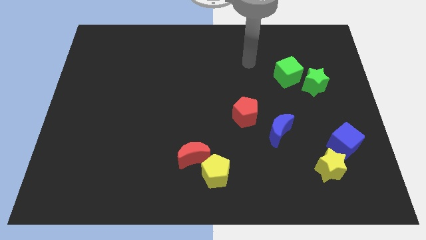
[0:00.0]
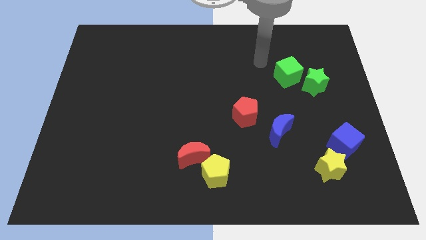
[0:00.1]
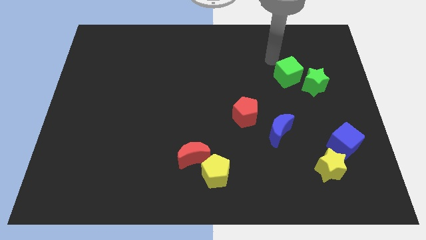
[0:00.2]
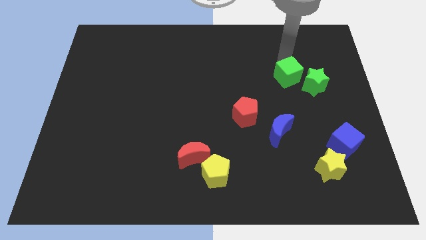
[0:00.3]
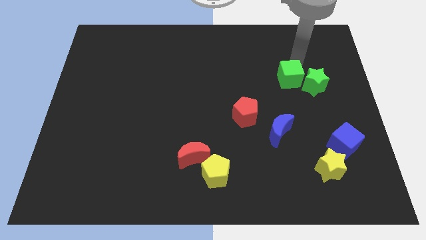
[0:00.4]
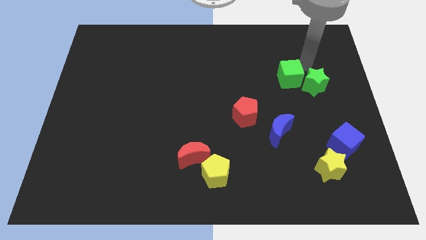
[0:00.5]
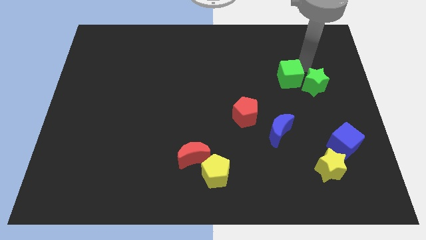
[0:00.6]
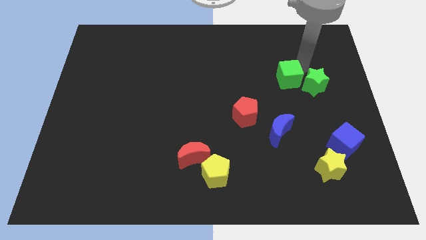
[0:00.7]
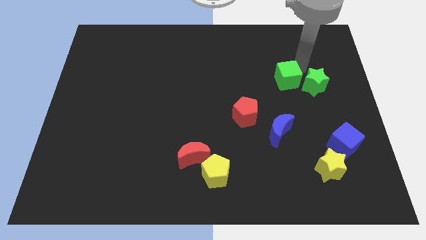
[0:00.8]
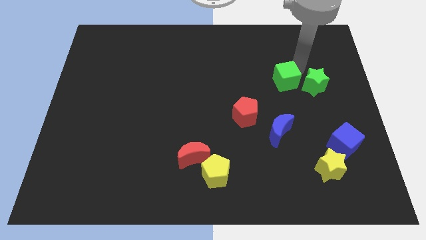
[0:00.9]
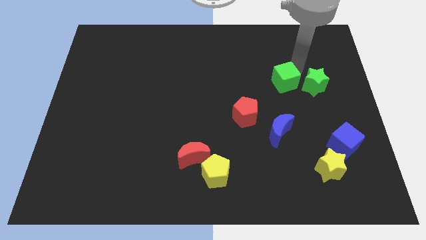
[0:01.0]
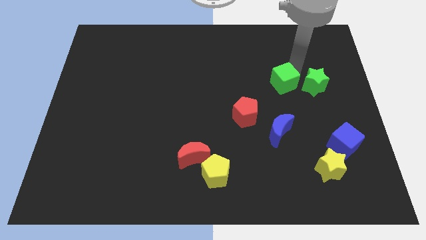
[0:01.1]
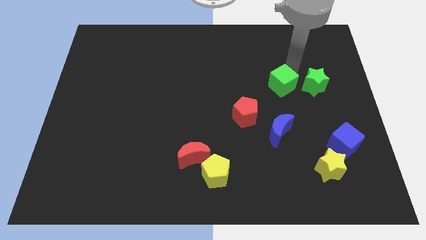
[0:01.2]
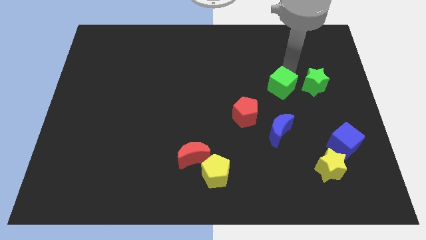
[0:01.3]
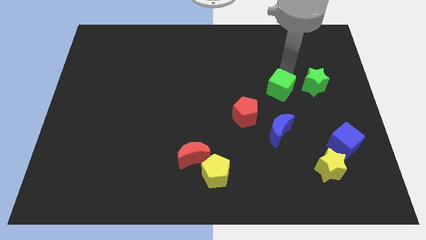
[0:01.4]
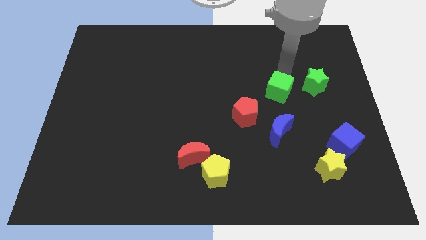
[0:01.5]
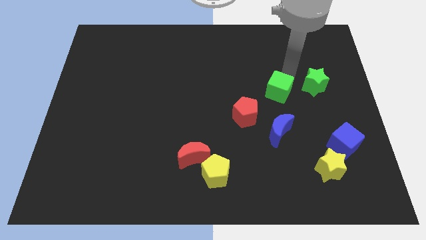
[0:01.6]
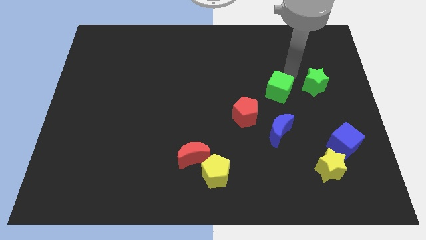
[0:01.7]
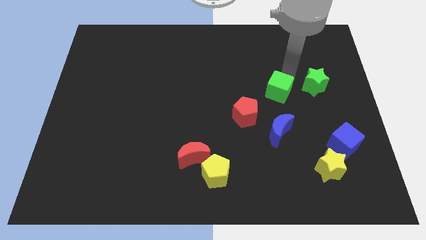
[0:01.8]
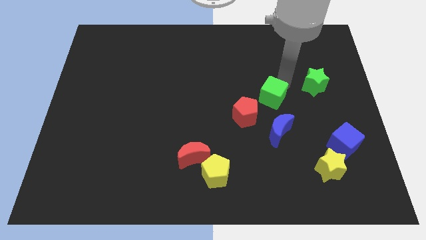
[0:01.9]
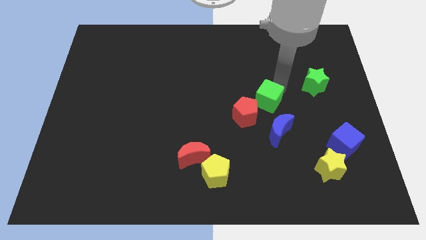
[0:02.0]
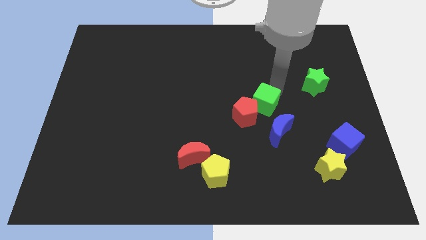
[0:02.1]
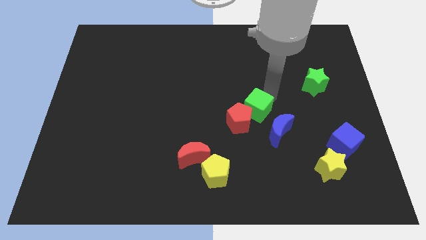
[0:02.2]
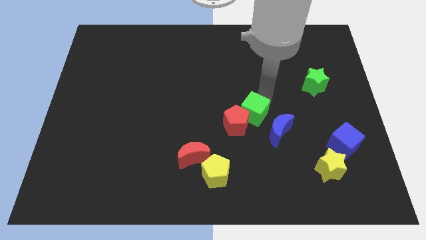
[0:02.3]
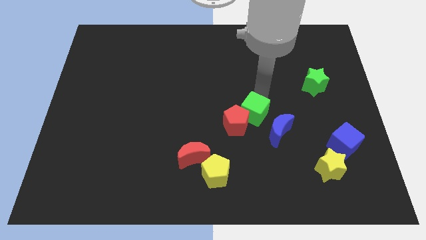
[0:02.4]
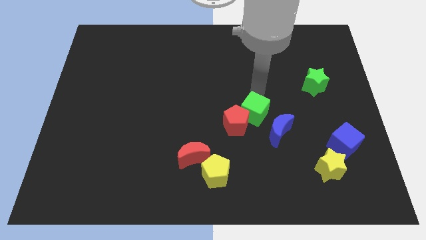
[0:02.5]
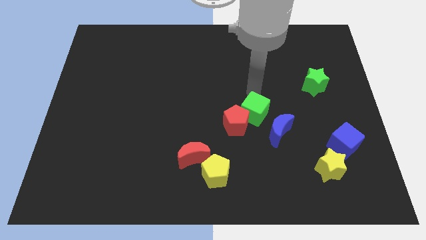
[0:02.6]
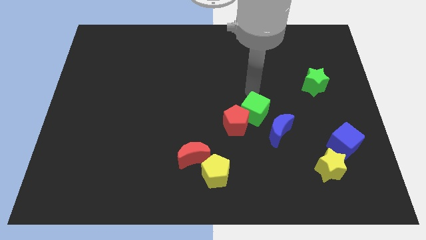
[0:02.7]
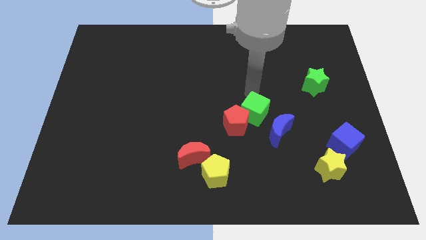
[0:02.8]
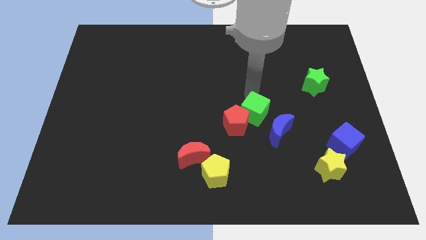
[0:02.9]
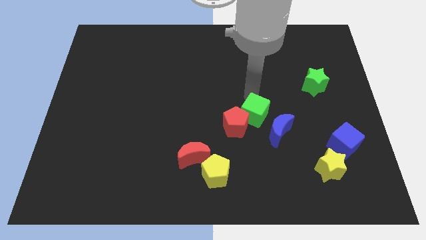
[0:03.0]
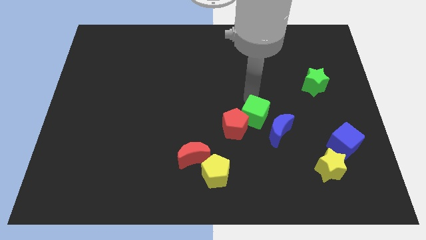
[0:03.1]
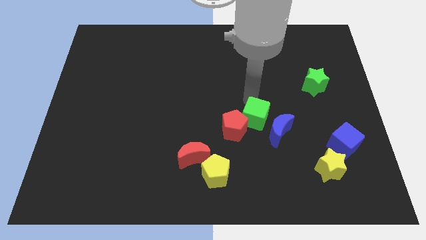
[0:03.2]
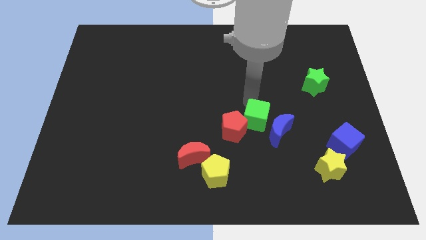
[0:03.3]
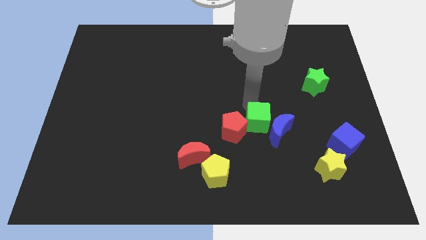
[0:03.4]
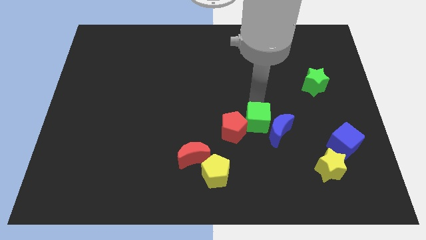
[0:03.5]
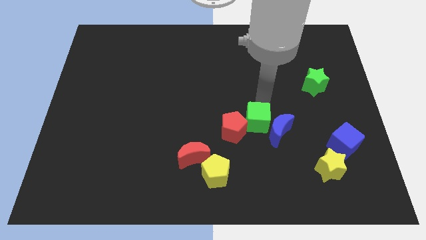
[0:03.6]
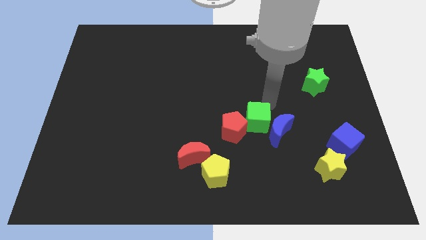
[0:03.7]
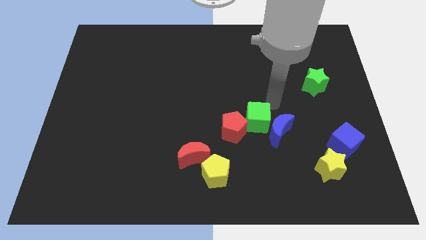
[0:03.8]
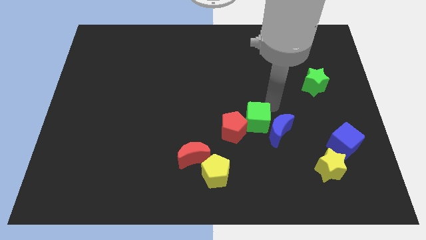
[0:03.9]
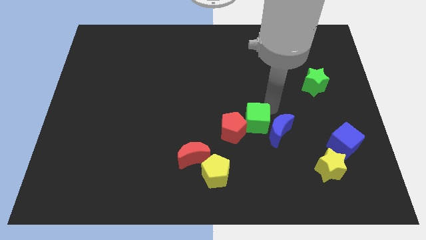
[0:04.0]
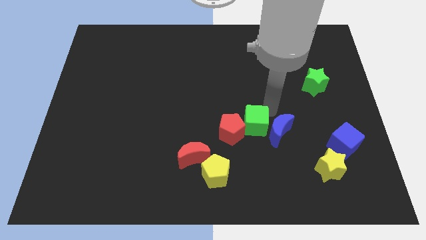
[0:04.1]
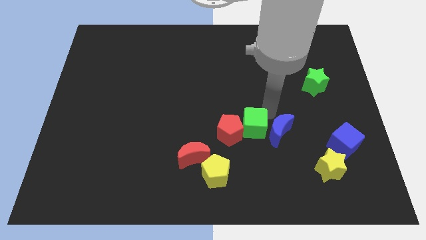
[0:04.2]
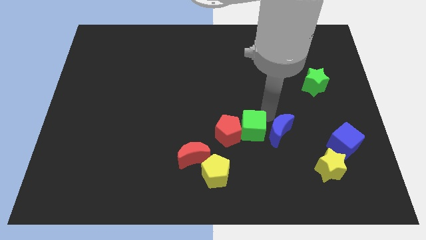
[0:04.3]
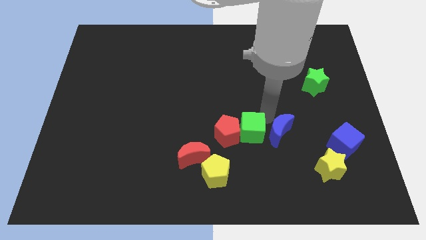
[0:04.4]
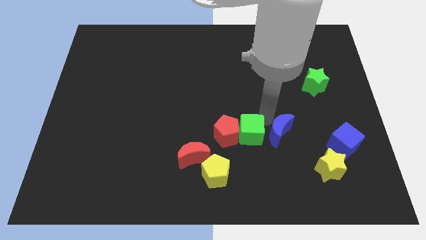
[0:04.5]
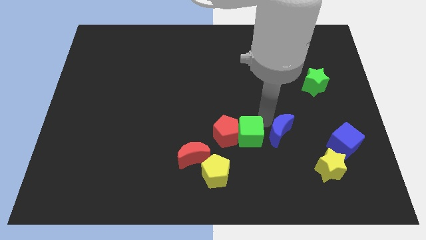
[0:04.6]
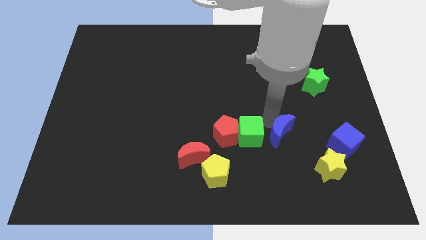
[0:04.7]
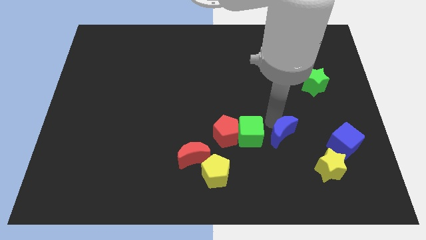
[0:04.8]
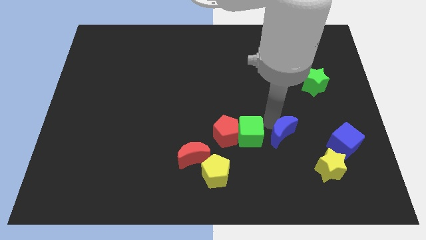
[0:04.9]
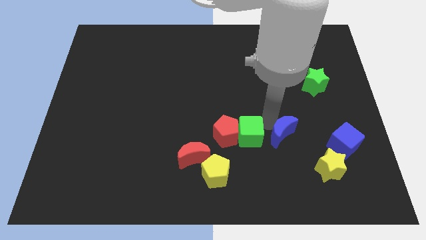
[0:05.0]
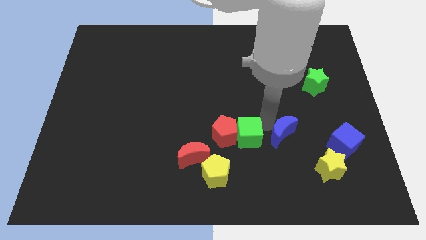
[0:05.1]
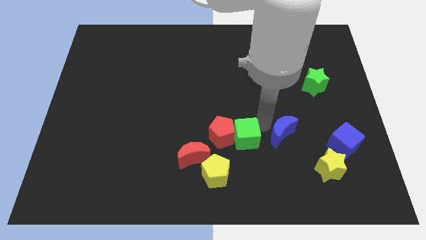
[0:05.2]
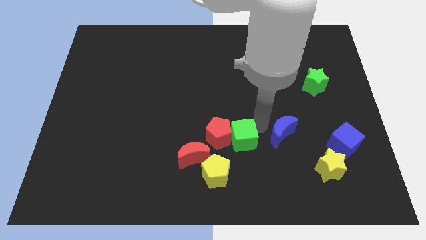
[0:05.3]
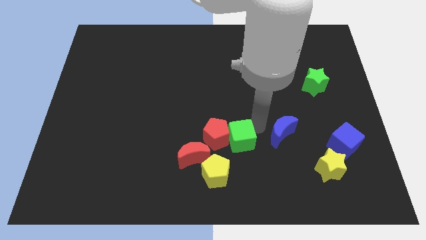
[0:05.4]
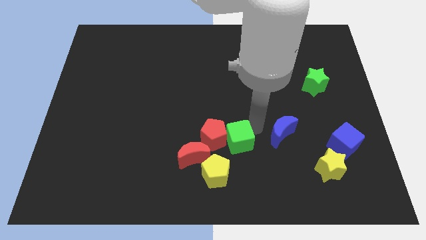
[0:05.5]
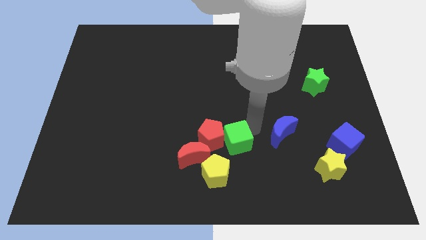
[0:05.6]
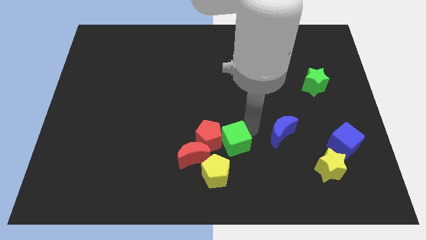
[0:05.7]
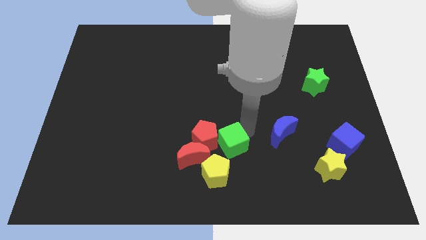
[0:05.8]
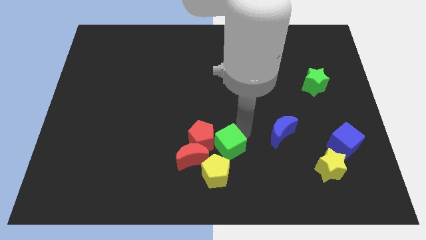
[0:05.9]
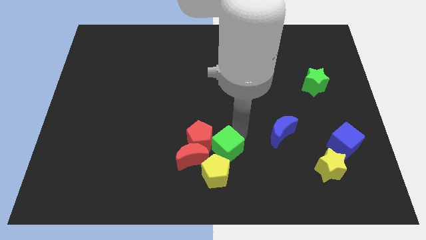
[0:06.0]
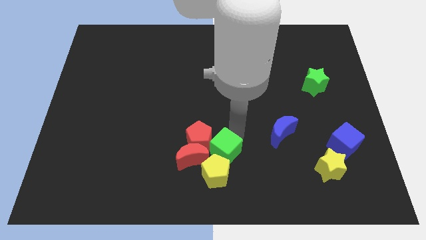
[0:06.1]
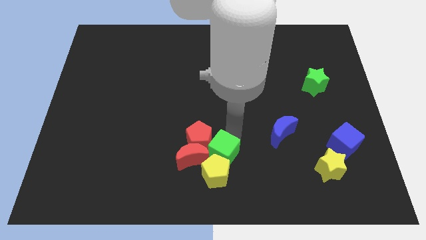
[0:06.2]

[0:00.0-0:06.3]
put the green cube next to the yellow pentagon

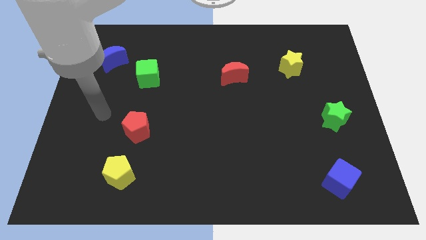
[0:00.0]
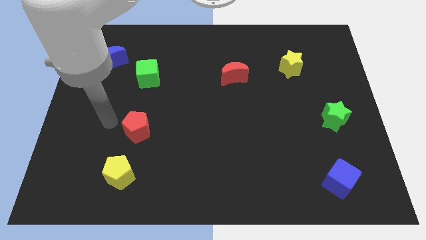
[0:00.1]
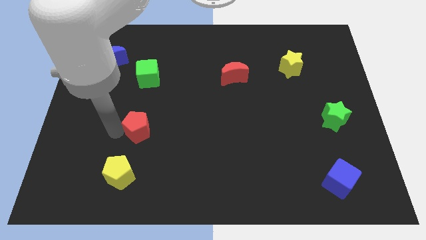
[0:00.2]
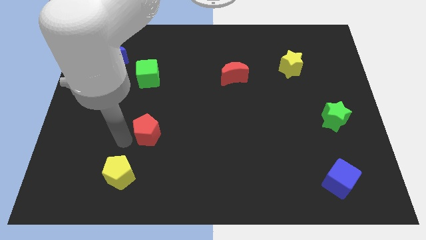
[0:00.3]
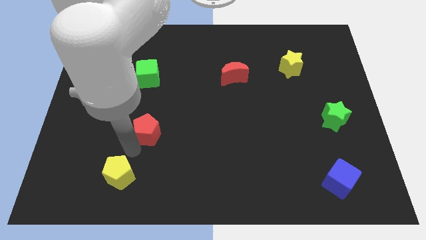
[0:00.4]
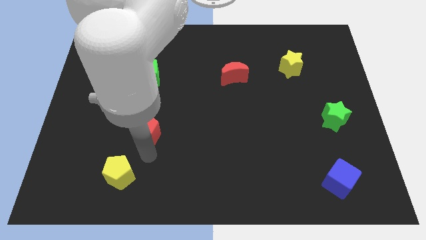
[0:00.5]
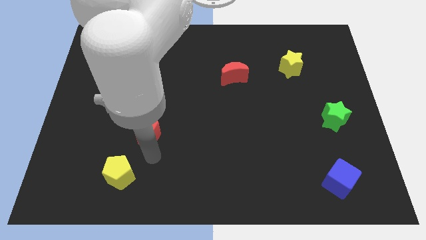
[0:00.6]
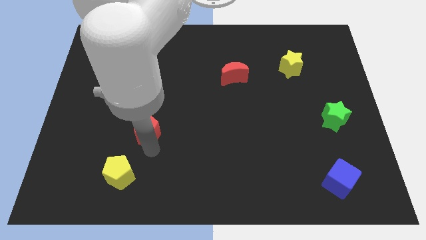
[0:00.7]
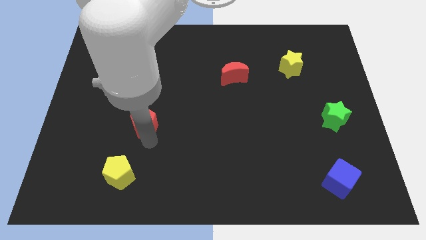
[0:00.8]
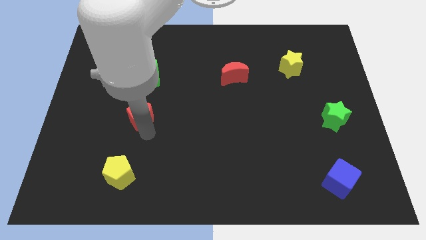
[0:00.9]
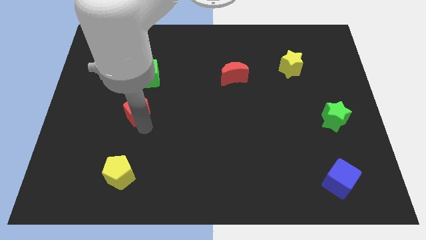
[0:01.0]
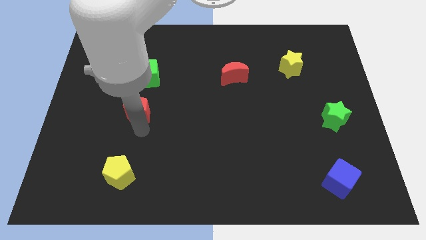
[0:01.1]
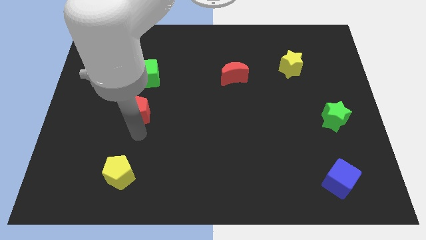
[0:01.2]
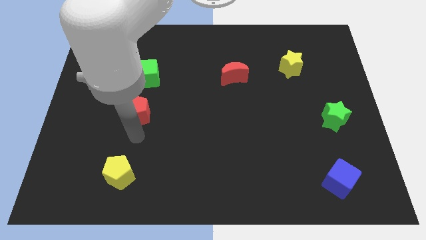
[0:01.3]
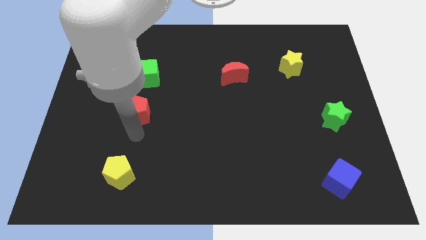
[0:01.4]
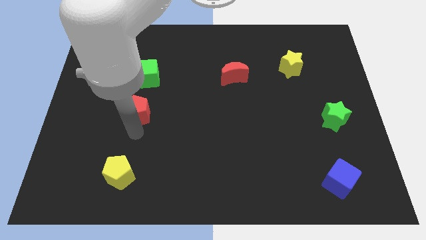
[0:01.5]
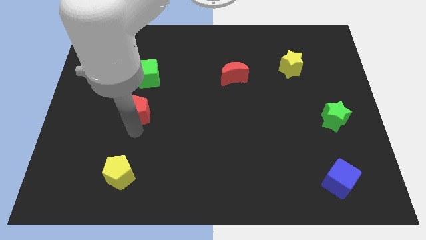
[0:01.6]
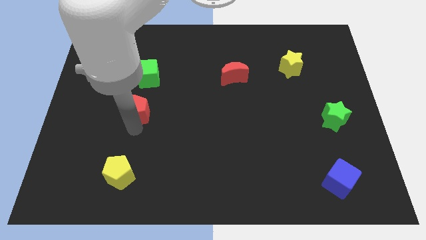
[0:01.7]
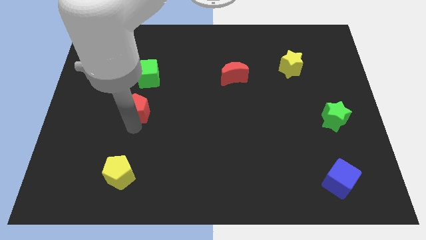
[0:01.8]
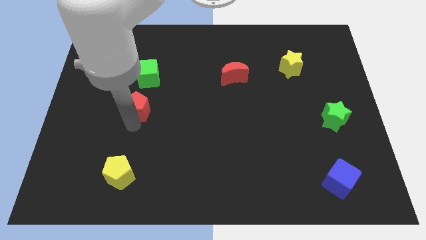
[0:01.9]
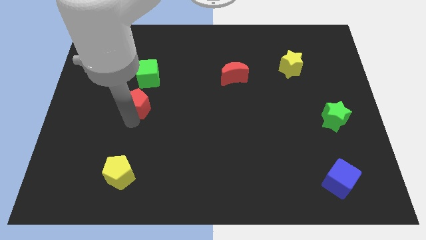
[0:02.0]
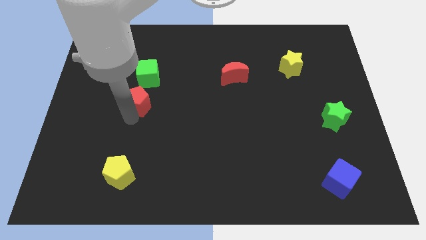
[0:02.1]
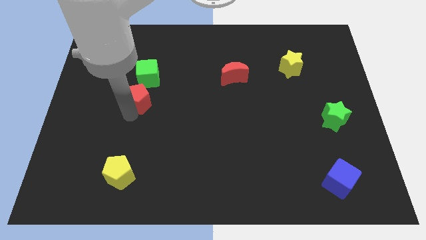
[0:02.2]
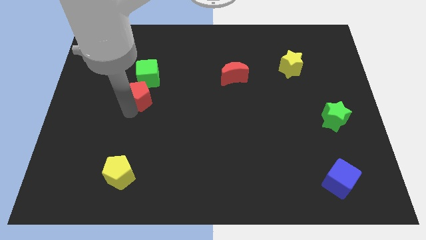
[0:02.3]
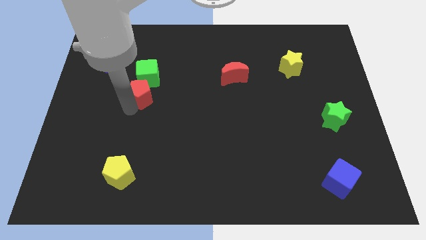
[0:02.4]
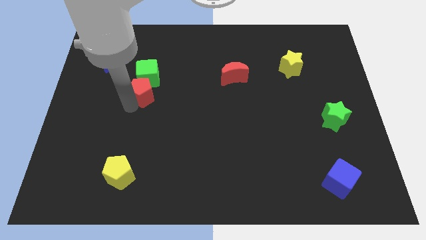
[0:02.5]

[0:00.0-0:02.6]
slide the red pentagon close to the green cube
